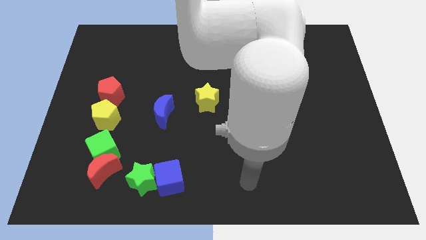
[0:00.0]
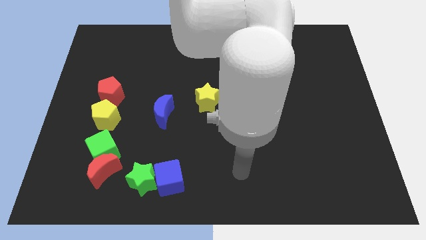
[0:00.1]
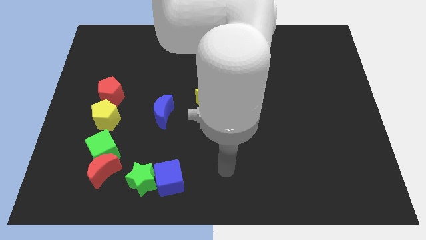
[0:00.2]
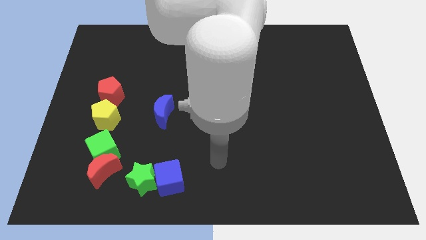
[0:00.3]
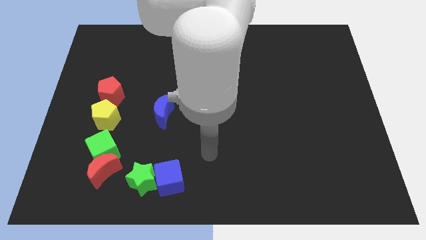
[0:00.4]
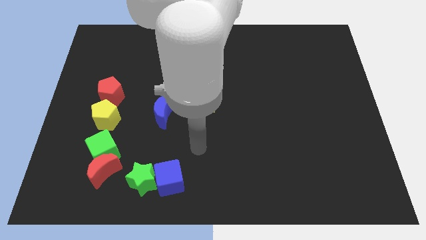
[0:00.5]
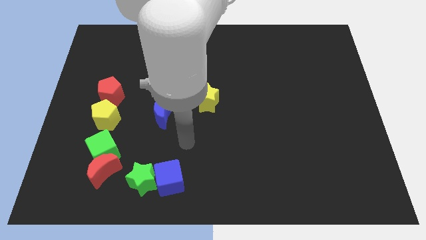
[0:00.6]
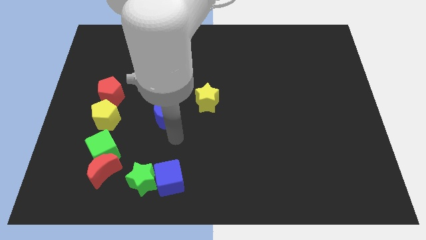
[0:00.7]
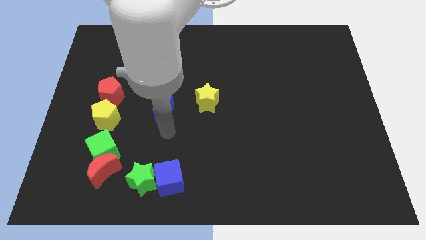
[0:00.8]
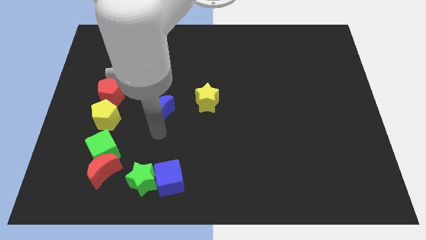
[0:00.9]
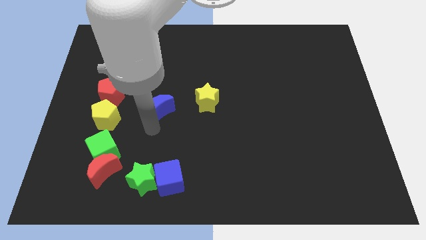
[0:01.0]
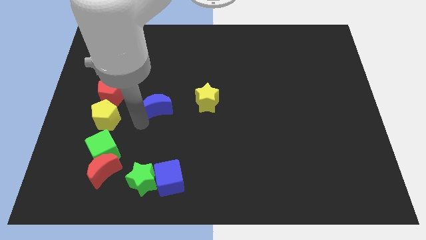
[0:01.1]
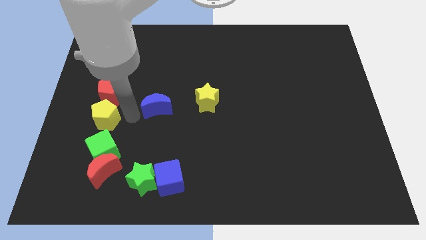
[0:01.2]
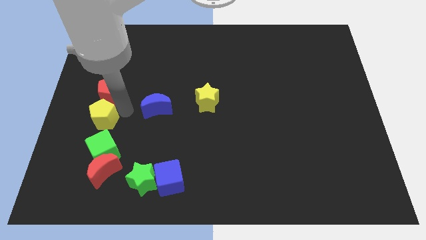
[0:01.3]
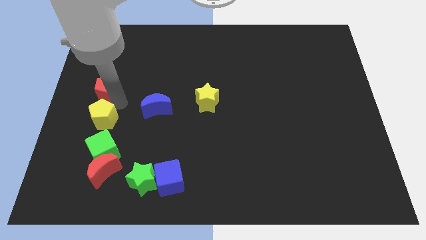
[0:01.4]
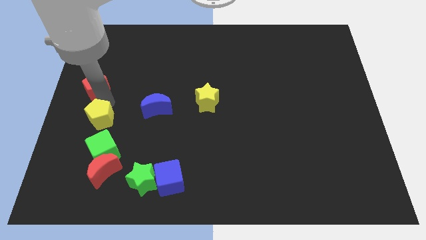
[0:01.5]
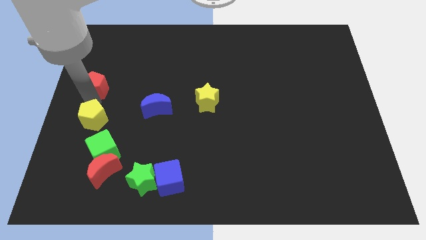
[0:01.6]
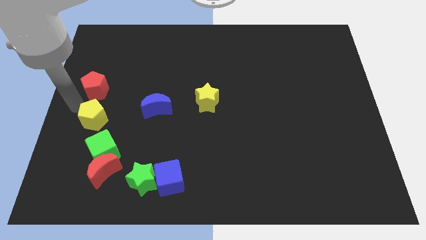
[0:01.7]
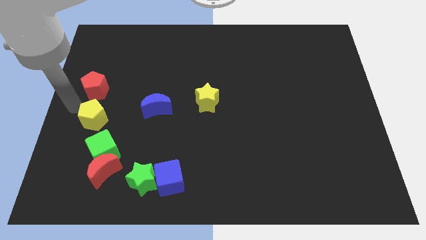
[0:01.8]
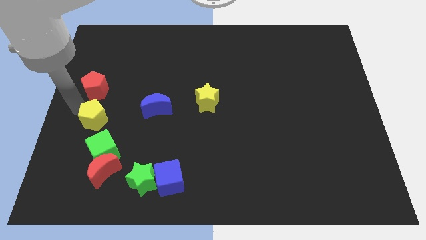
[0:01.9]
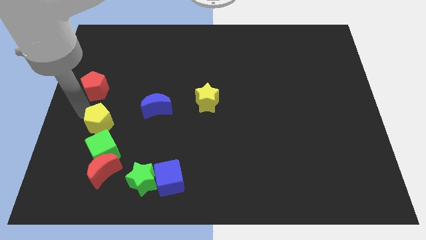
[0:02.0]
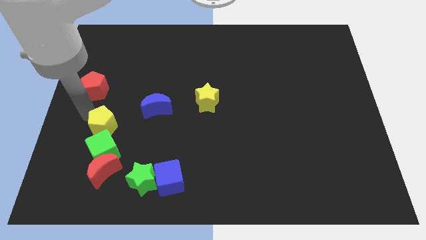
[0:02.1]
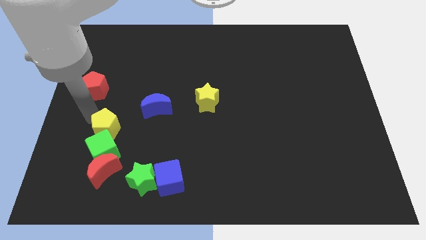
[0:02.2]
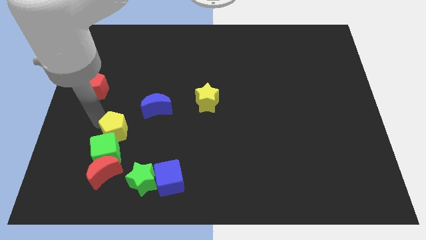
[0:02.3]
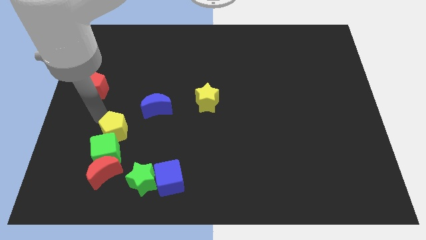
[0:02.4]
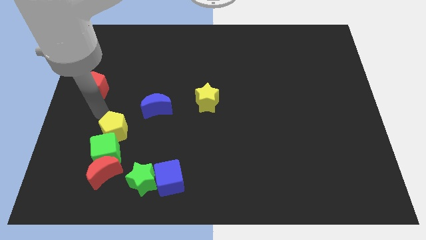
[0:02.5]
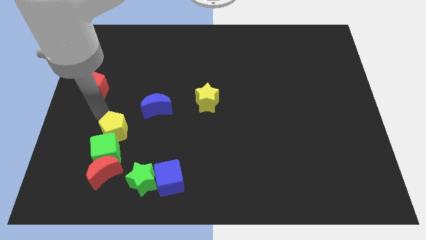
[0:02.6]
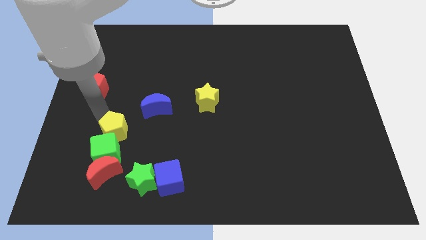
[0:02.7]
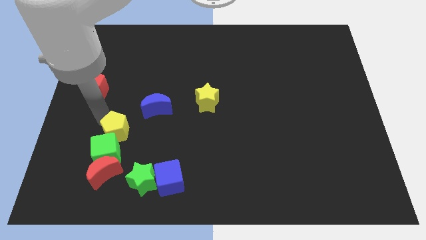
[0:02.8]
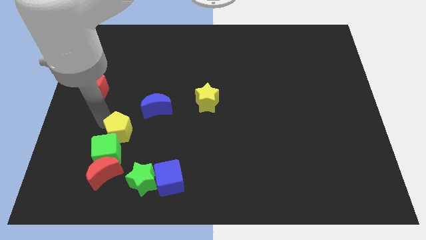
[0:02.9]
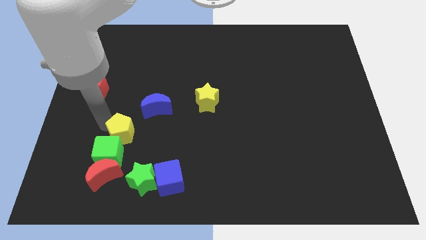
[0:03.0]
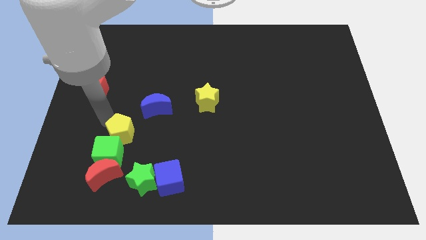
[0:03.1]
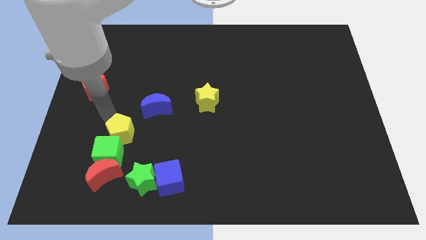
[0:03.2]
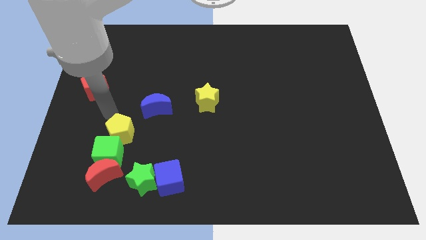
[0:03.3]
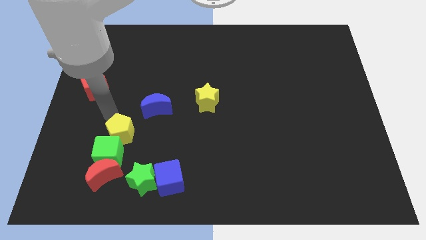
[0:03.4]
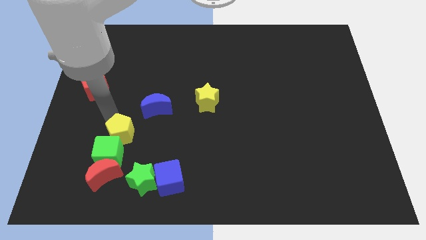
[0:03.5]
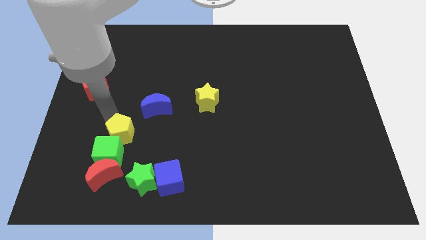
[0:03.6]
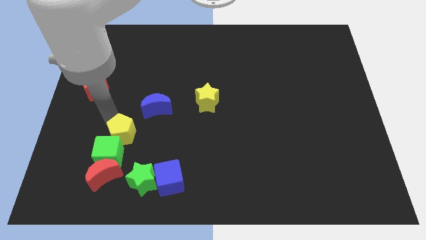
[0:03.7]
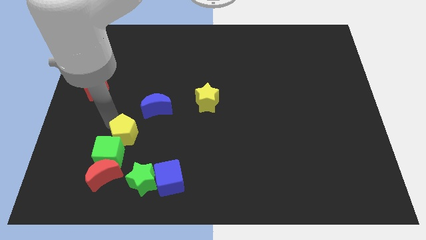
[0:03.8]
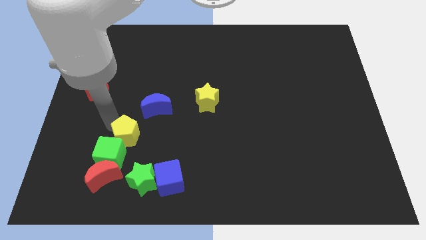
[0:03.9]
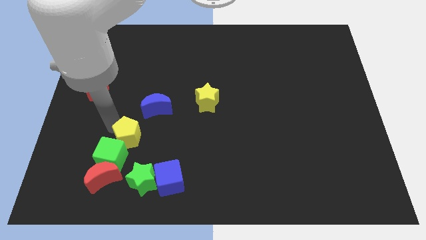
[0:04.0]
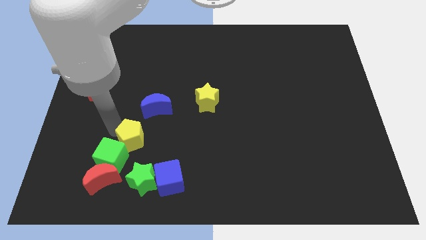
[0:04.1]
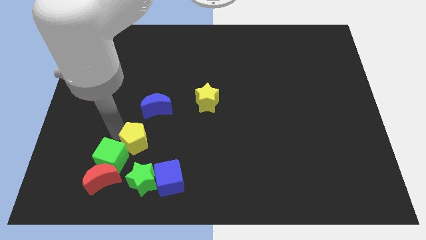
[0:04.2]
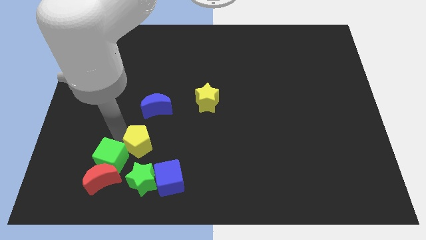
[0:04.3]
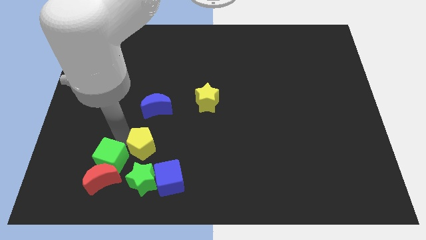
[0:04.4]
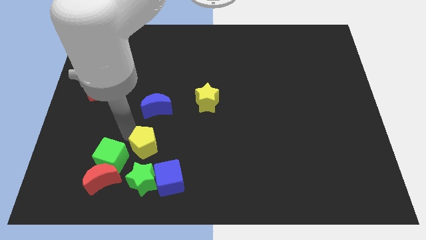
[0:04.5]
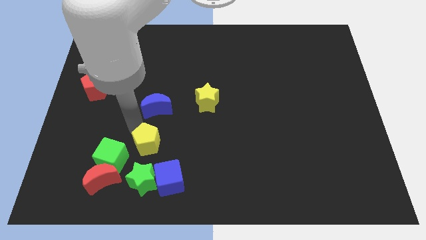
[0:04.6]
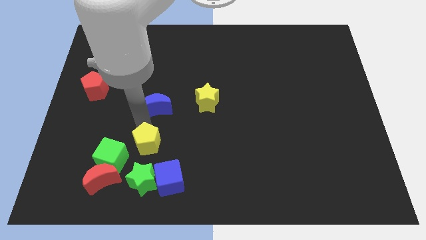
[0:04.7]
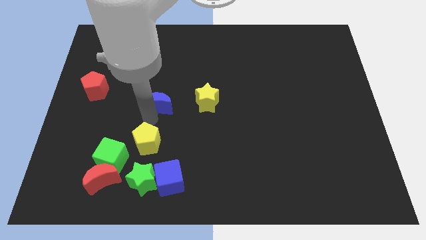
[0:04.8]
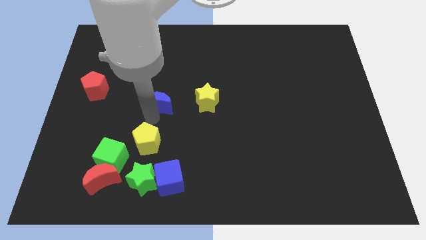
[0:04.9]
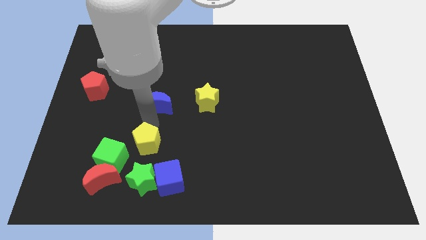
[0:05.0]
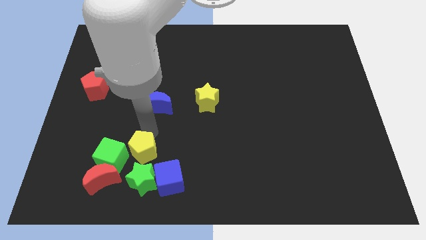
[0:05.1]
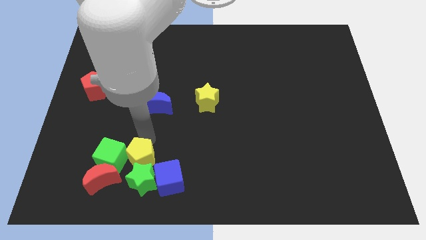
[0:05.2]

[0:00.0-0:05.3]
push the yellow pentagon close to the green star

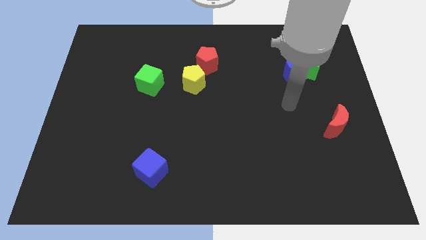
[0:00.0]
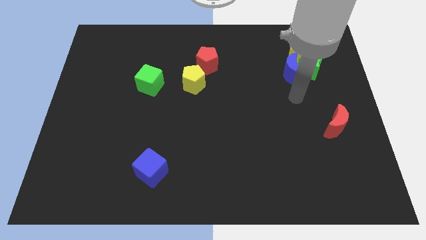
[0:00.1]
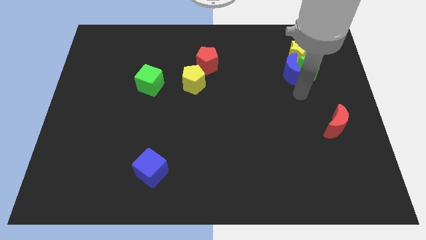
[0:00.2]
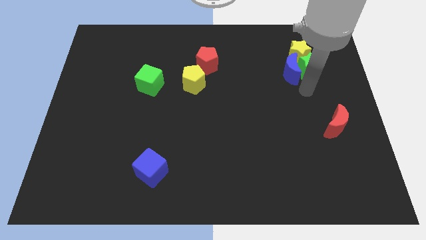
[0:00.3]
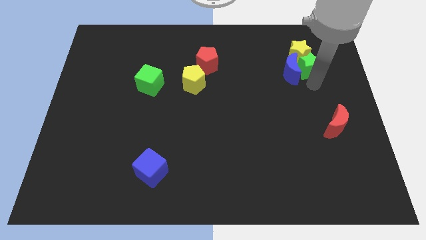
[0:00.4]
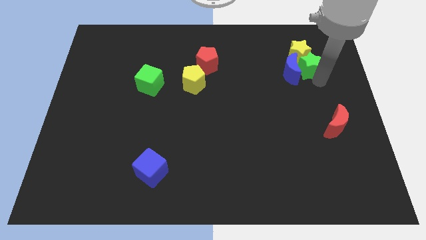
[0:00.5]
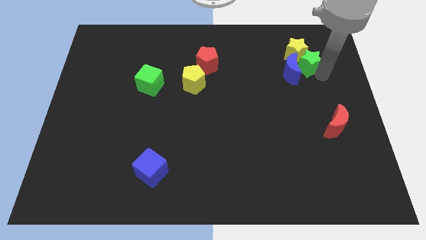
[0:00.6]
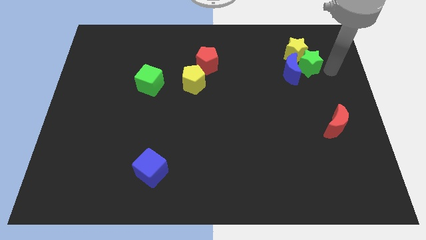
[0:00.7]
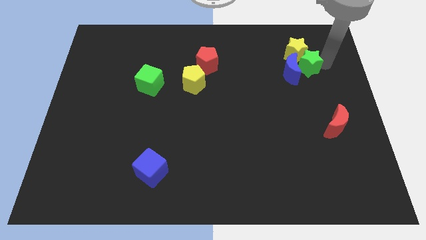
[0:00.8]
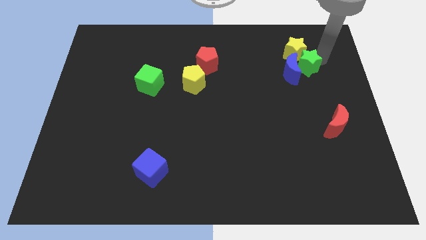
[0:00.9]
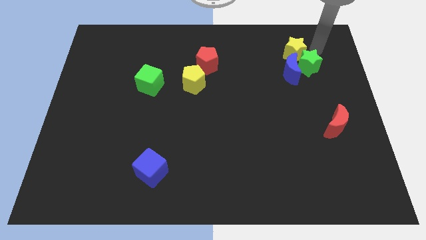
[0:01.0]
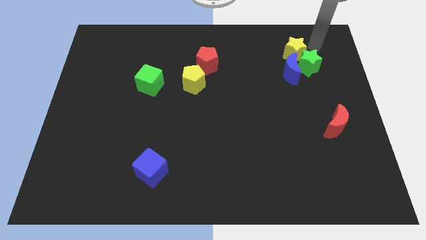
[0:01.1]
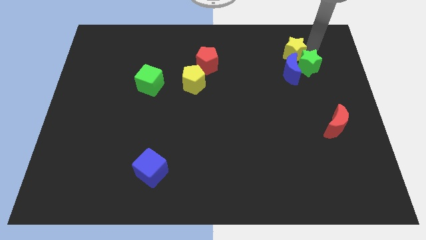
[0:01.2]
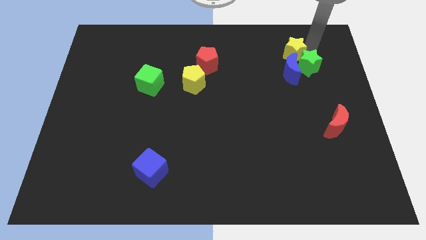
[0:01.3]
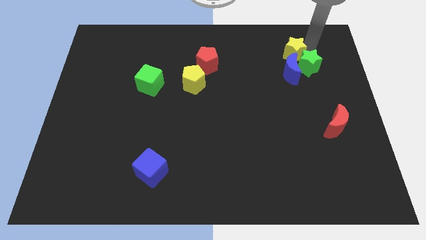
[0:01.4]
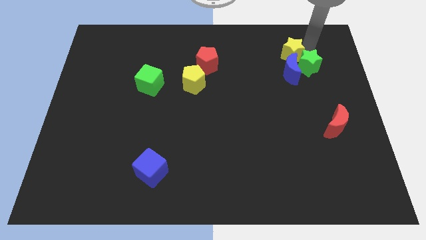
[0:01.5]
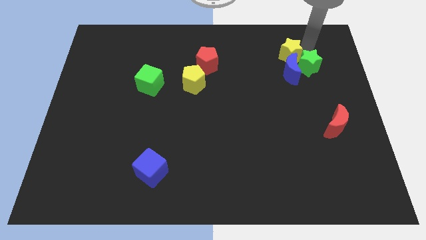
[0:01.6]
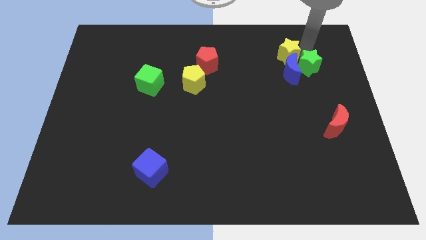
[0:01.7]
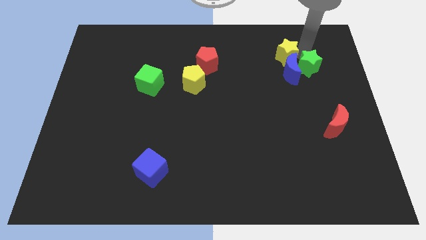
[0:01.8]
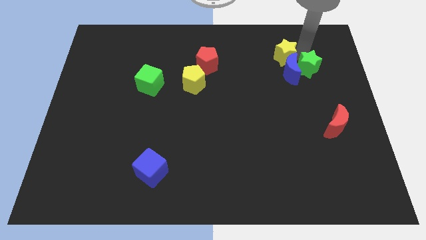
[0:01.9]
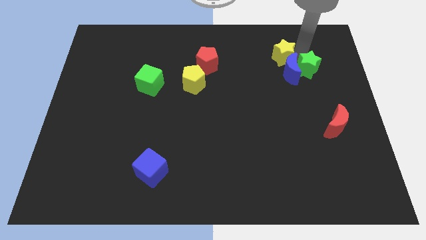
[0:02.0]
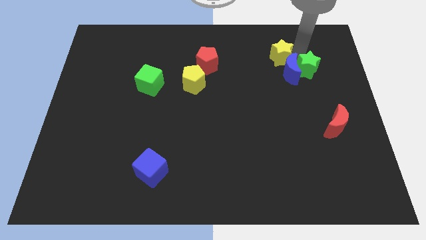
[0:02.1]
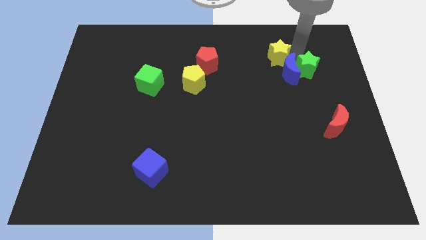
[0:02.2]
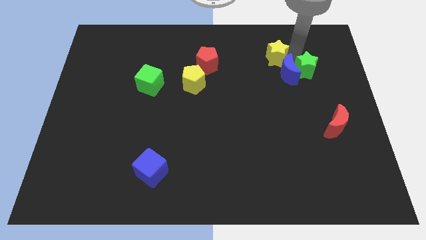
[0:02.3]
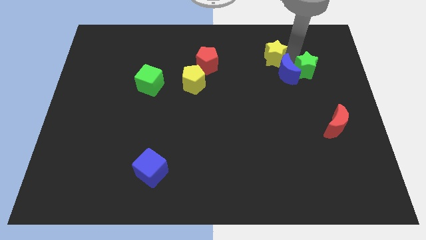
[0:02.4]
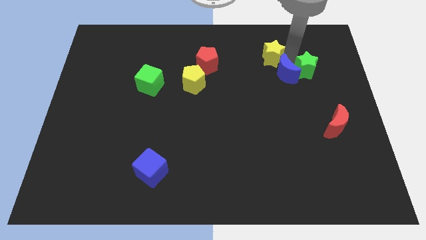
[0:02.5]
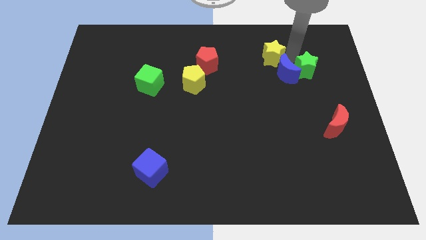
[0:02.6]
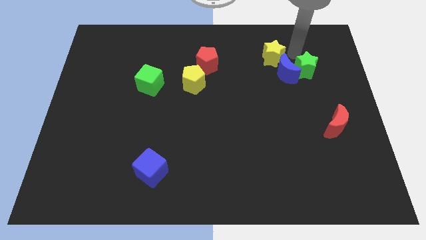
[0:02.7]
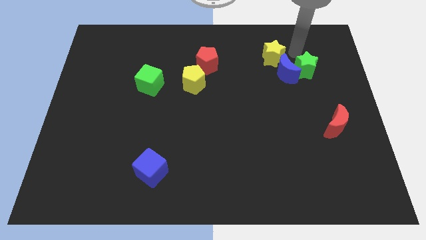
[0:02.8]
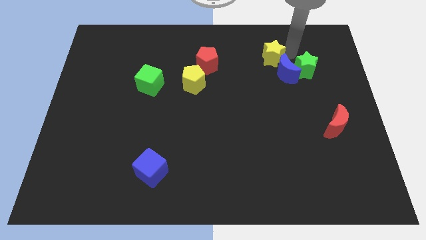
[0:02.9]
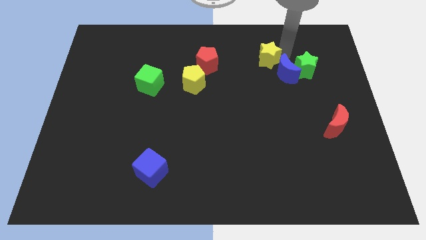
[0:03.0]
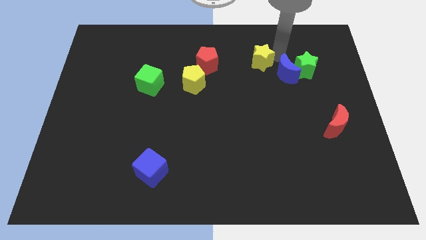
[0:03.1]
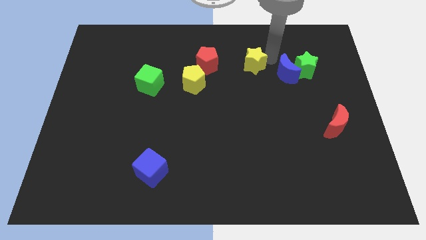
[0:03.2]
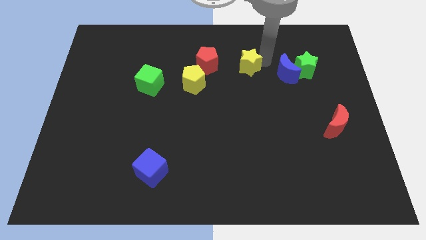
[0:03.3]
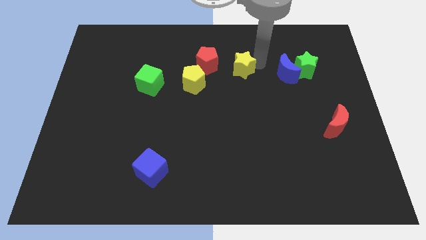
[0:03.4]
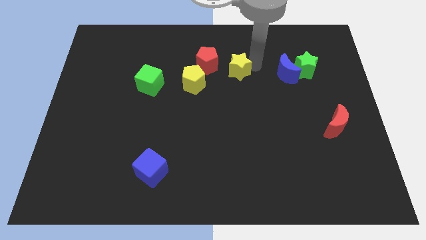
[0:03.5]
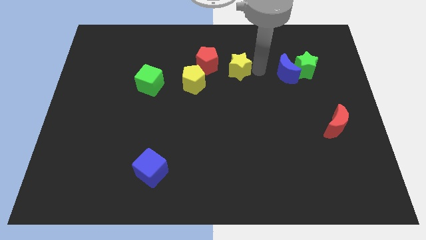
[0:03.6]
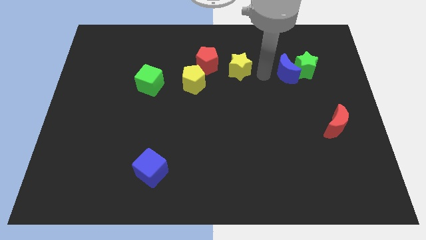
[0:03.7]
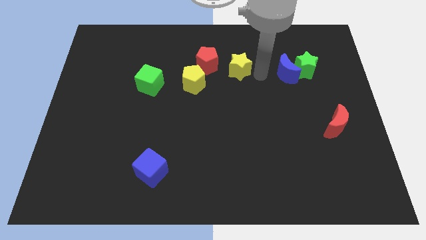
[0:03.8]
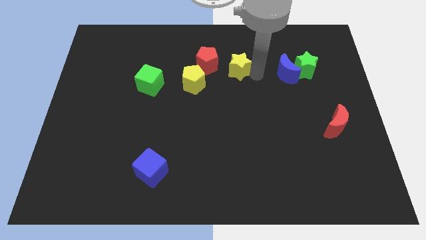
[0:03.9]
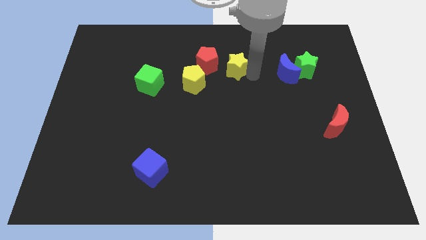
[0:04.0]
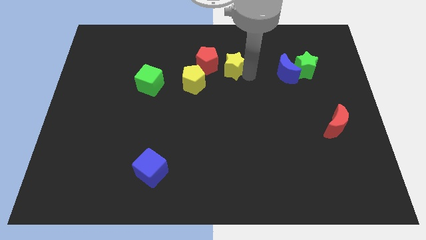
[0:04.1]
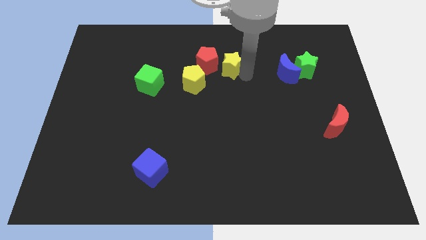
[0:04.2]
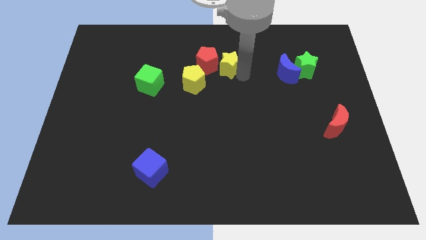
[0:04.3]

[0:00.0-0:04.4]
slide the yellow star to the red pentagon
